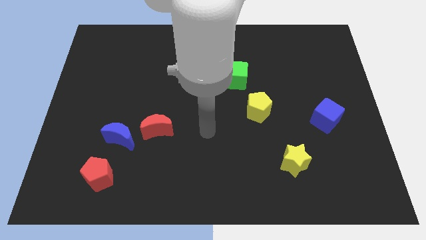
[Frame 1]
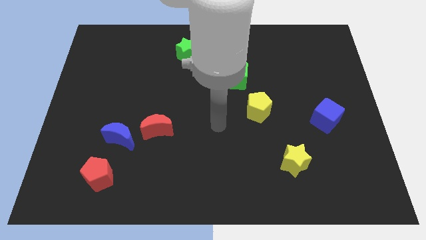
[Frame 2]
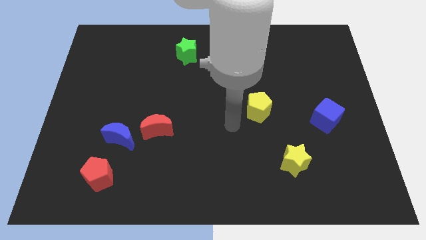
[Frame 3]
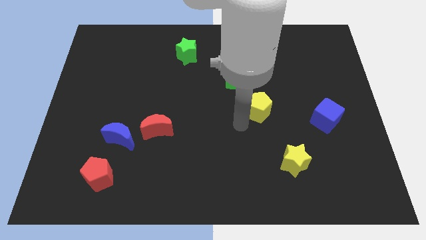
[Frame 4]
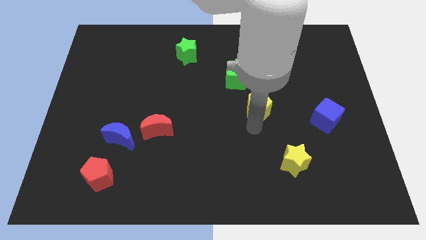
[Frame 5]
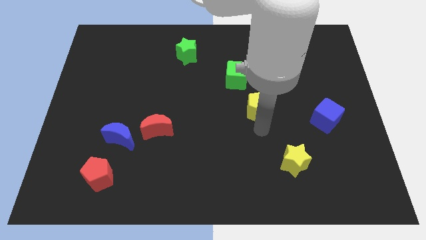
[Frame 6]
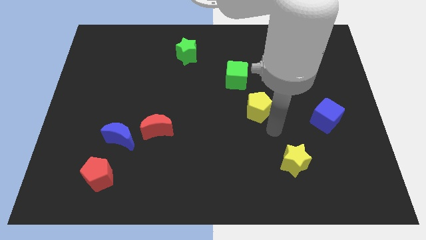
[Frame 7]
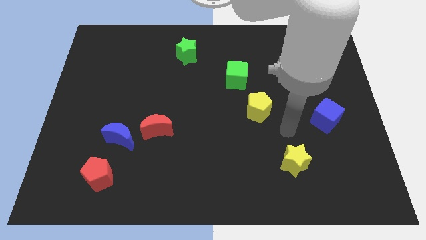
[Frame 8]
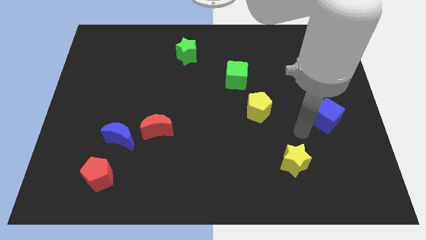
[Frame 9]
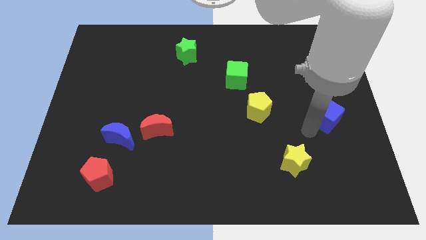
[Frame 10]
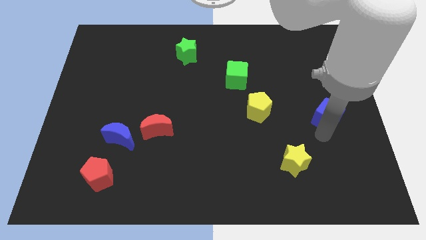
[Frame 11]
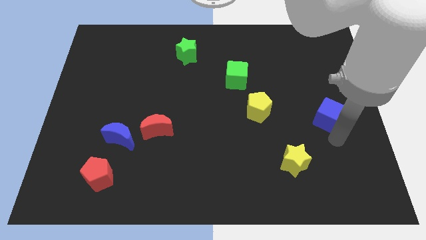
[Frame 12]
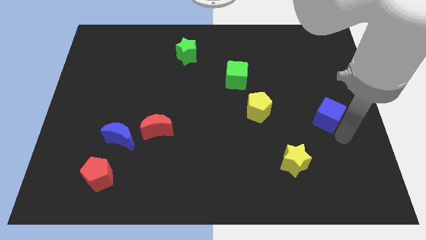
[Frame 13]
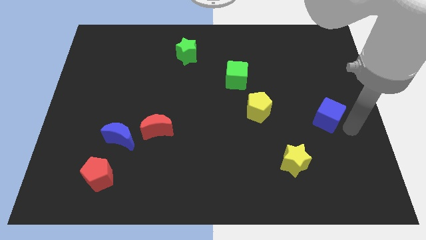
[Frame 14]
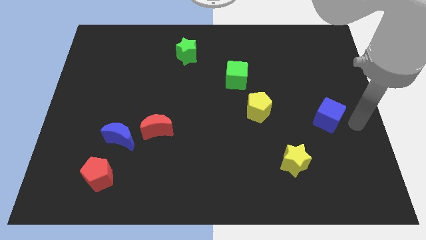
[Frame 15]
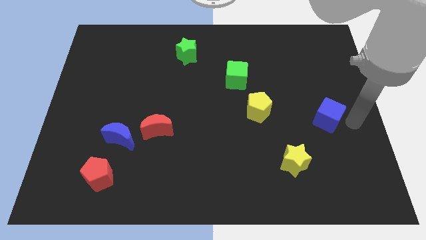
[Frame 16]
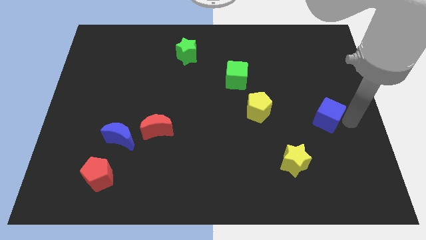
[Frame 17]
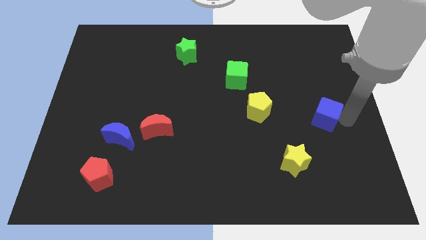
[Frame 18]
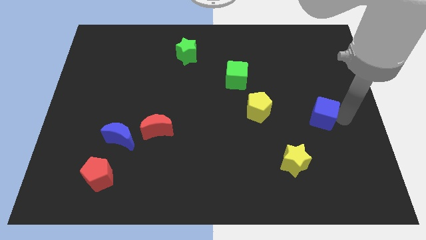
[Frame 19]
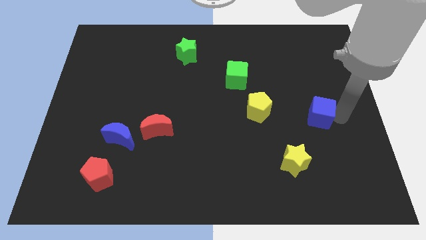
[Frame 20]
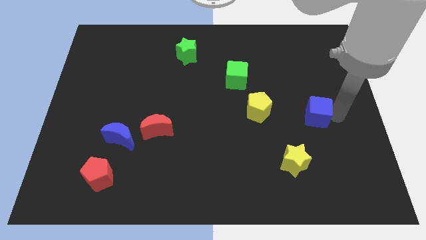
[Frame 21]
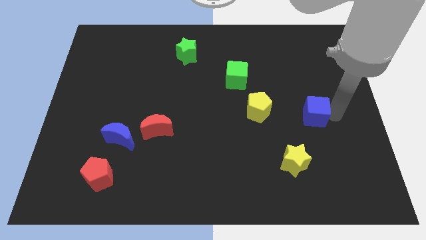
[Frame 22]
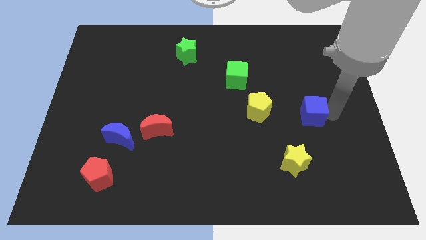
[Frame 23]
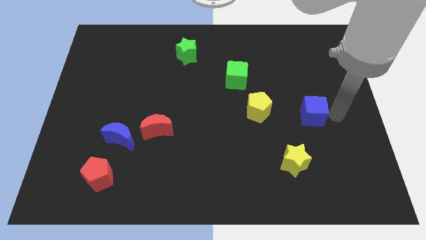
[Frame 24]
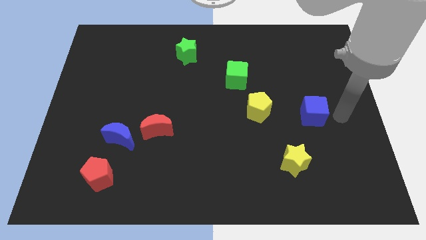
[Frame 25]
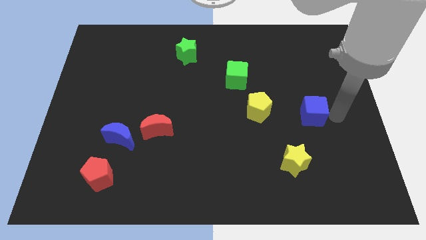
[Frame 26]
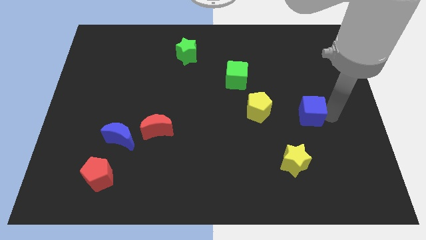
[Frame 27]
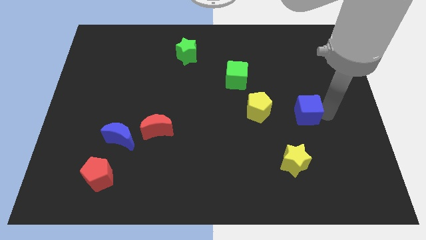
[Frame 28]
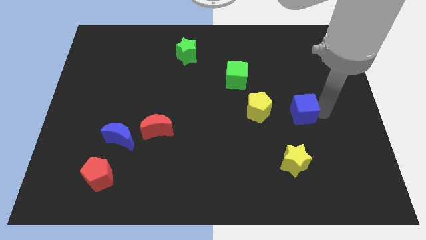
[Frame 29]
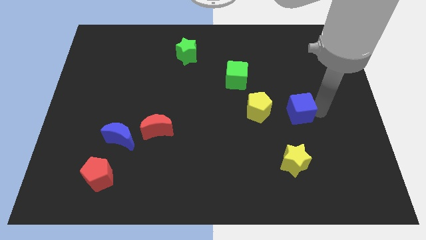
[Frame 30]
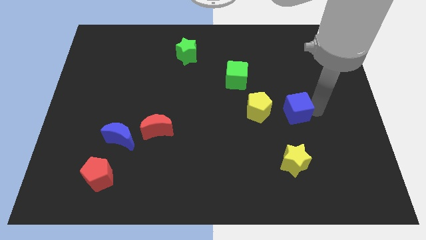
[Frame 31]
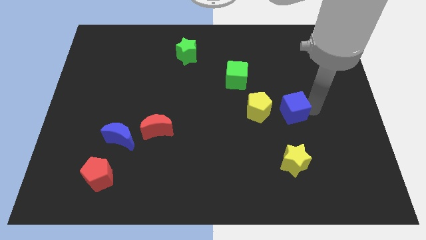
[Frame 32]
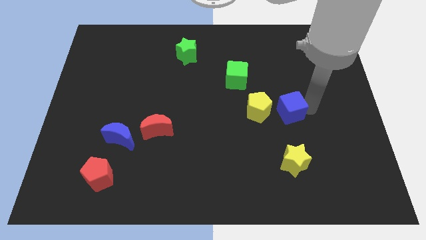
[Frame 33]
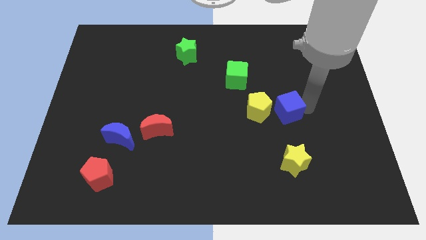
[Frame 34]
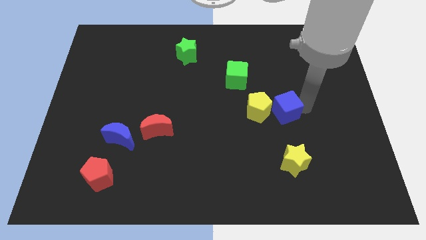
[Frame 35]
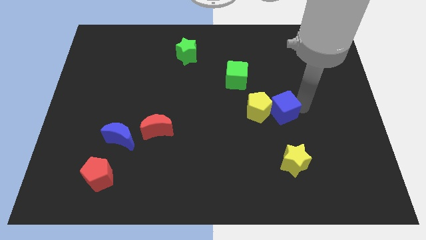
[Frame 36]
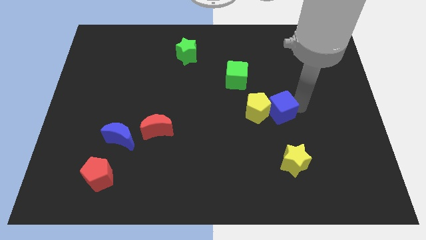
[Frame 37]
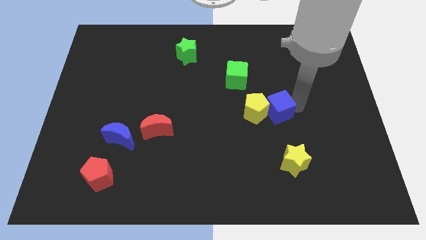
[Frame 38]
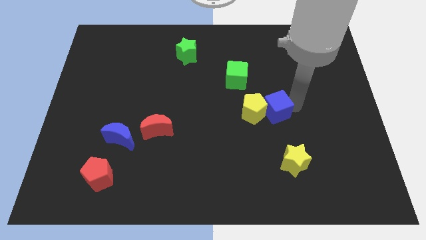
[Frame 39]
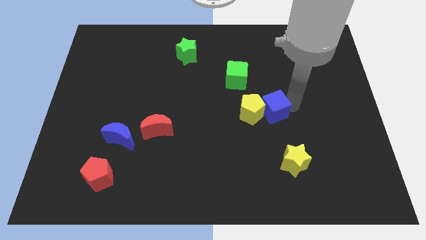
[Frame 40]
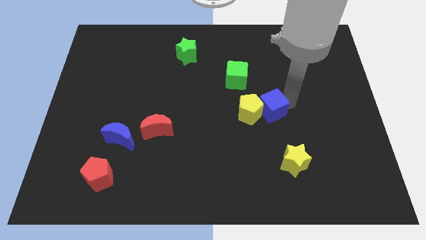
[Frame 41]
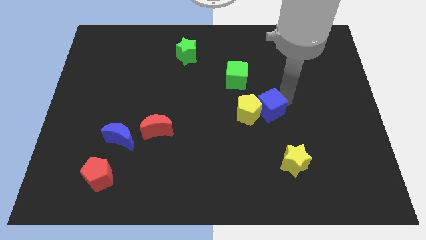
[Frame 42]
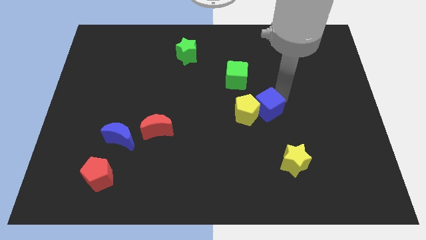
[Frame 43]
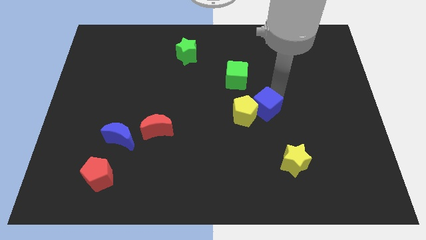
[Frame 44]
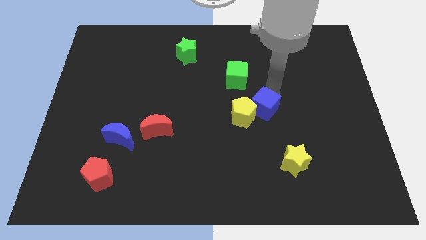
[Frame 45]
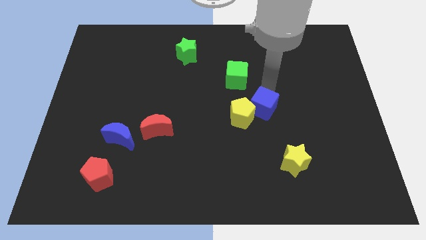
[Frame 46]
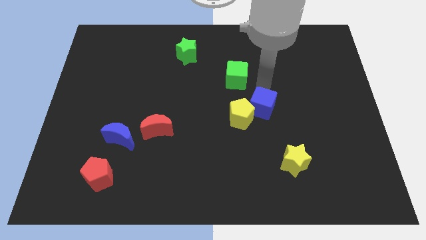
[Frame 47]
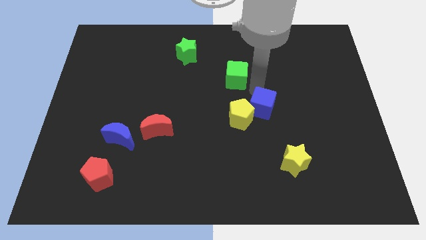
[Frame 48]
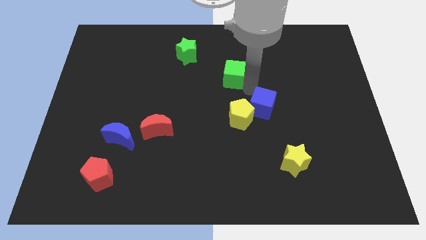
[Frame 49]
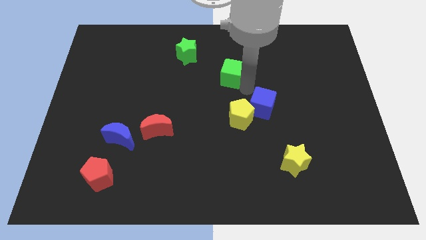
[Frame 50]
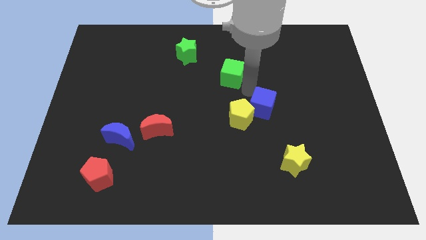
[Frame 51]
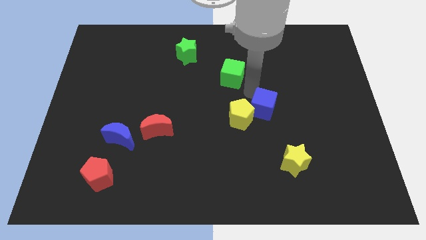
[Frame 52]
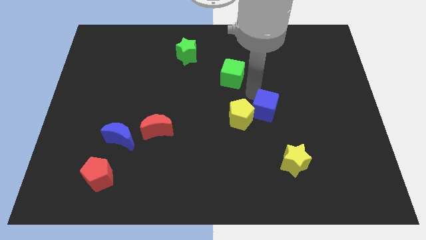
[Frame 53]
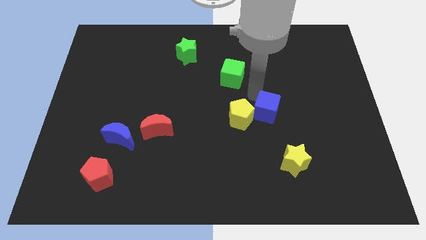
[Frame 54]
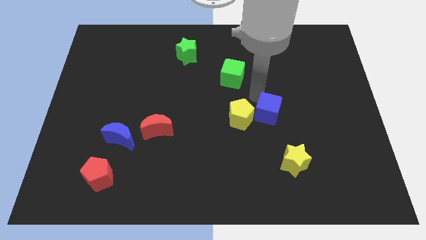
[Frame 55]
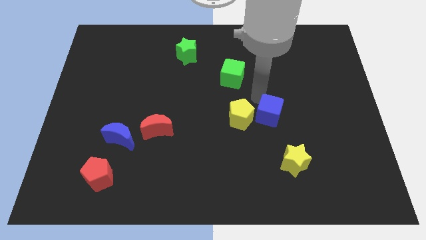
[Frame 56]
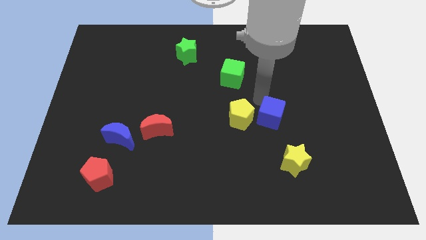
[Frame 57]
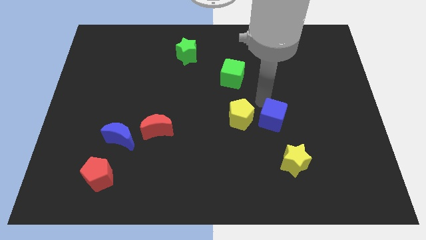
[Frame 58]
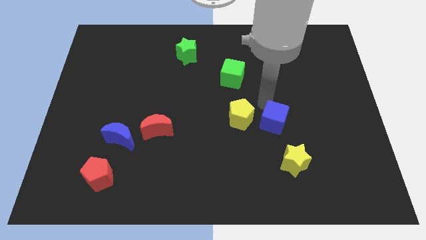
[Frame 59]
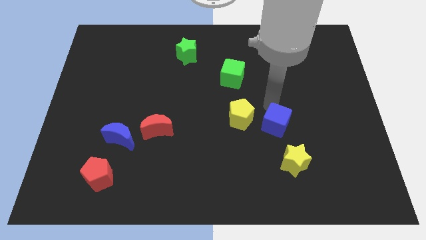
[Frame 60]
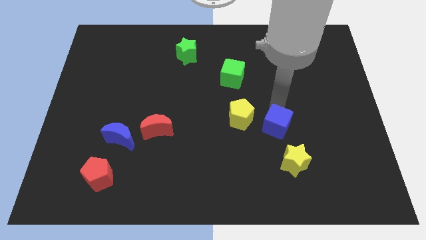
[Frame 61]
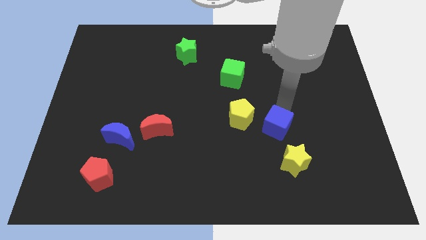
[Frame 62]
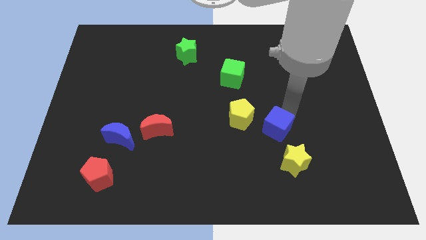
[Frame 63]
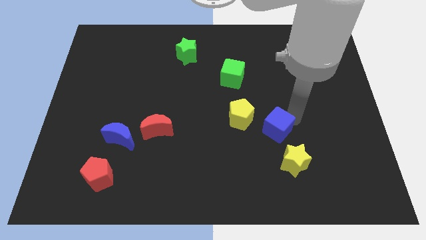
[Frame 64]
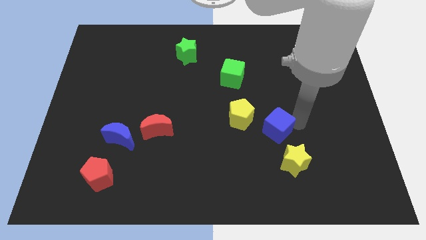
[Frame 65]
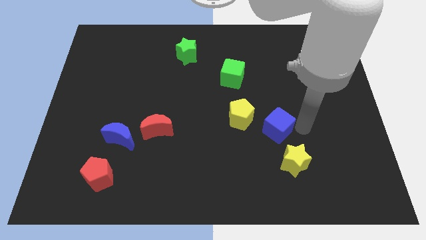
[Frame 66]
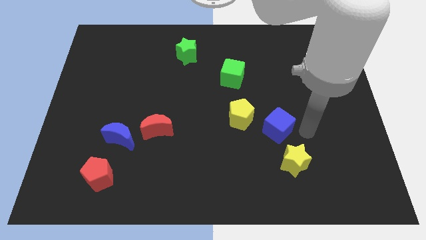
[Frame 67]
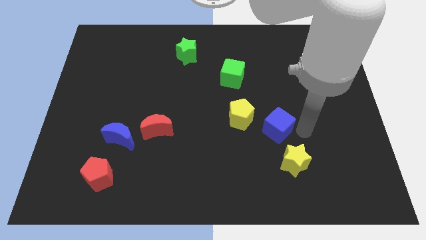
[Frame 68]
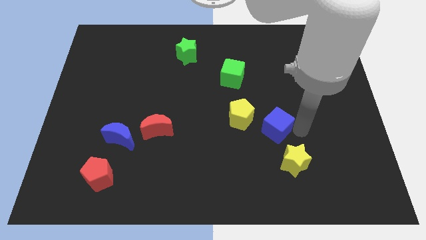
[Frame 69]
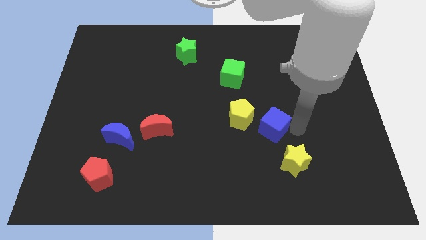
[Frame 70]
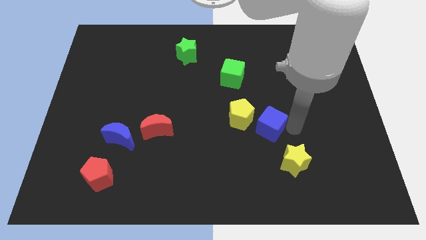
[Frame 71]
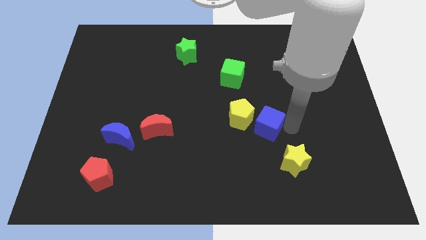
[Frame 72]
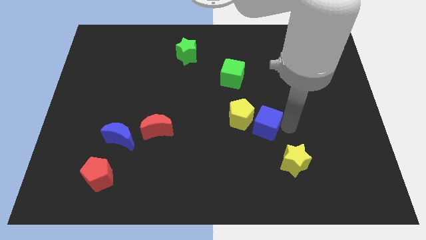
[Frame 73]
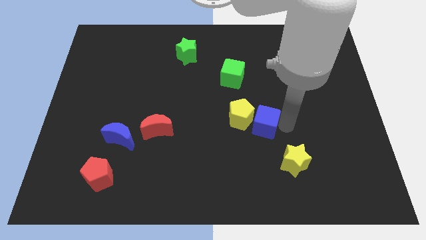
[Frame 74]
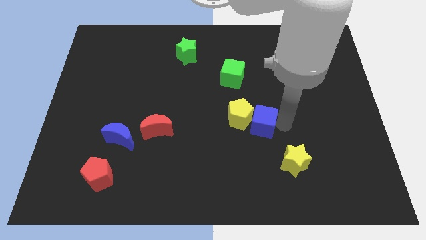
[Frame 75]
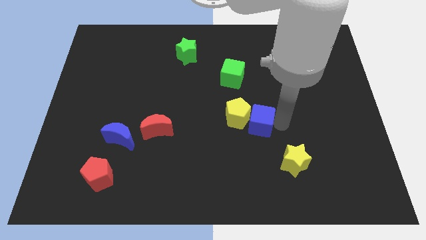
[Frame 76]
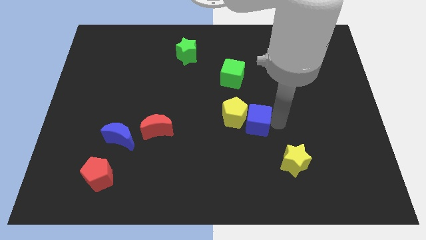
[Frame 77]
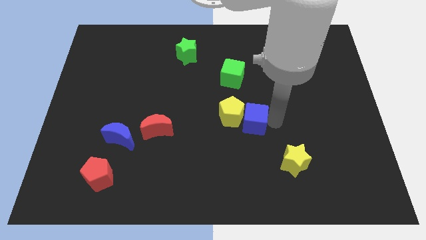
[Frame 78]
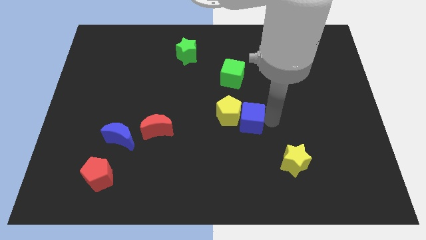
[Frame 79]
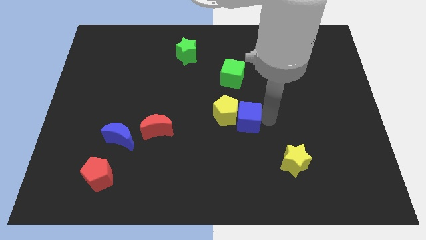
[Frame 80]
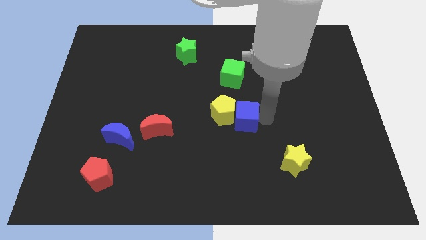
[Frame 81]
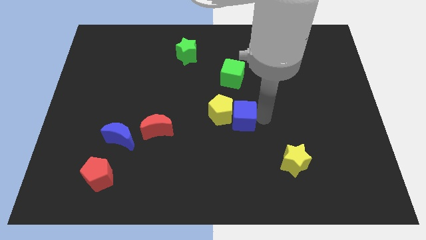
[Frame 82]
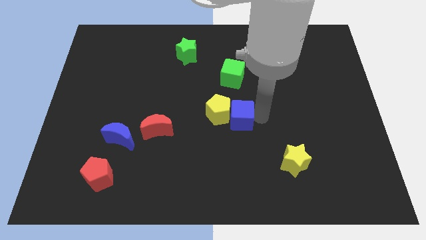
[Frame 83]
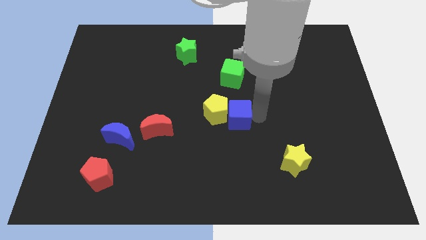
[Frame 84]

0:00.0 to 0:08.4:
slide the blue cube left
